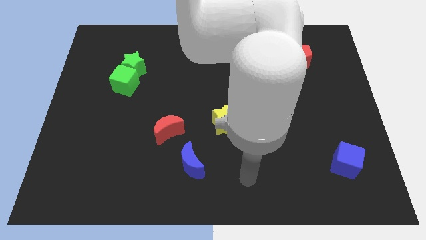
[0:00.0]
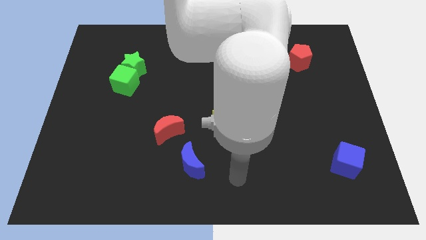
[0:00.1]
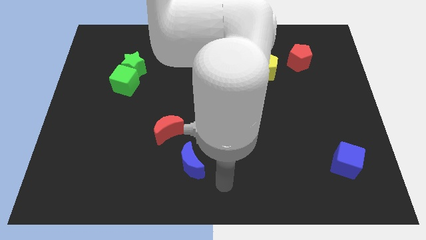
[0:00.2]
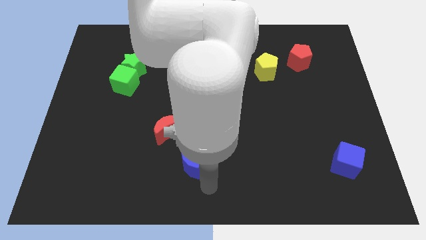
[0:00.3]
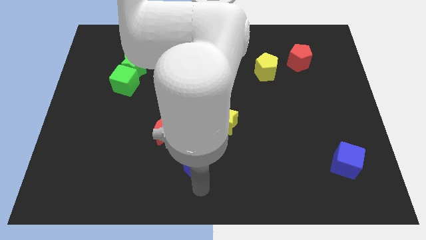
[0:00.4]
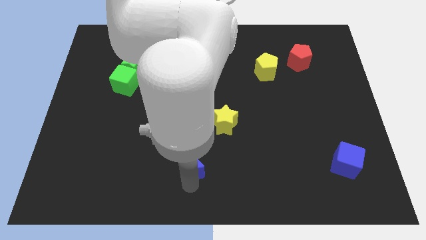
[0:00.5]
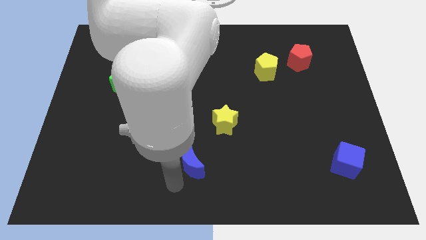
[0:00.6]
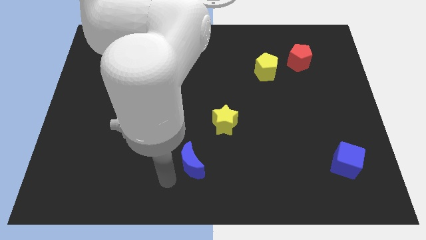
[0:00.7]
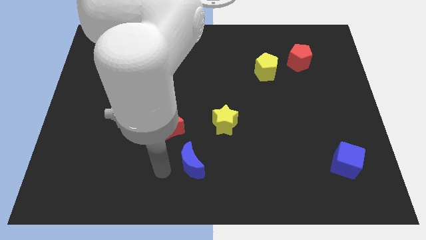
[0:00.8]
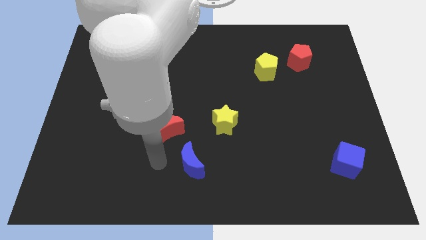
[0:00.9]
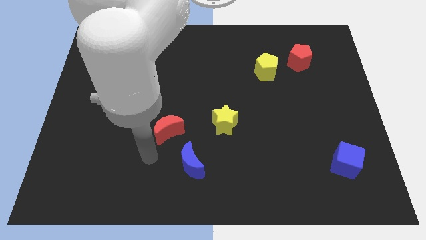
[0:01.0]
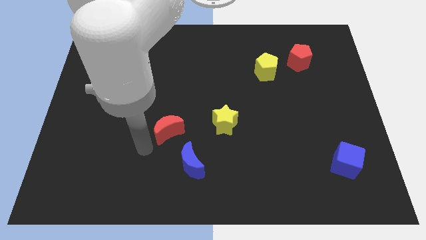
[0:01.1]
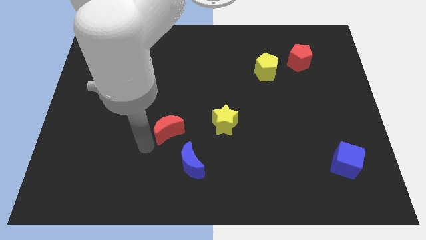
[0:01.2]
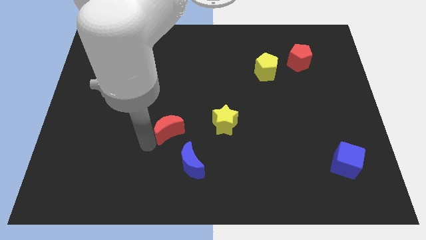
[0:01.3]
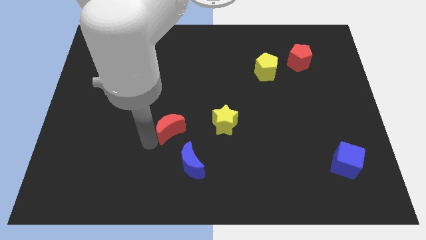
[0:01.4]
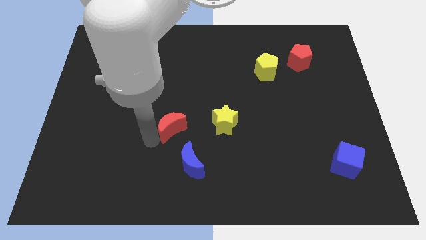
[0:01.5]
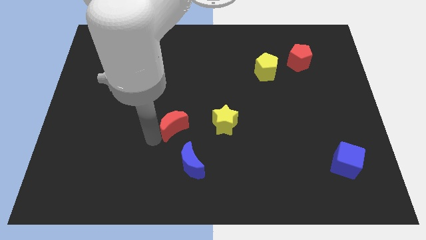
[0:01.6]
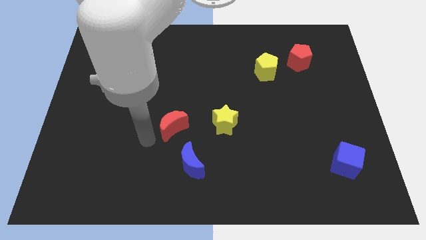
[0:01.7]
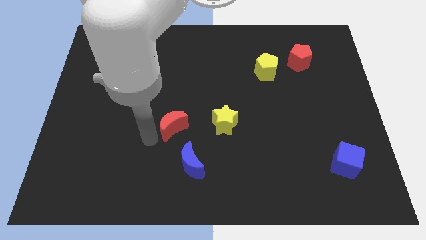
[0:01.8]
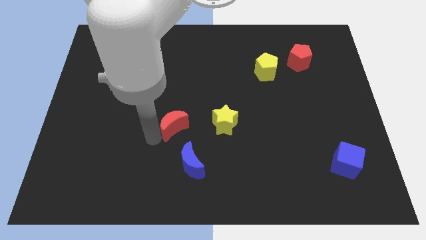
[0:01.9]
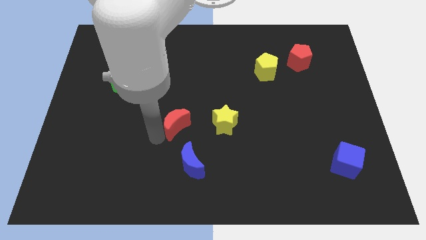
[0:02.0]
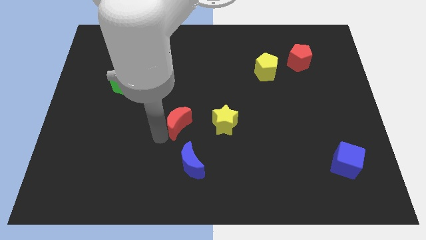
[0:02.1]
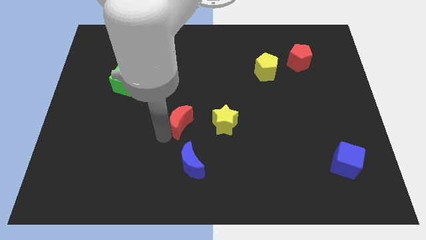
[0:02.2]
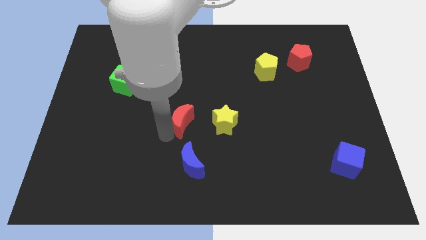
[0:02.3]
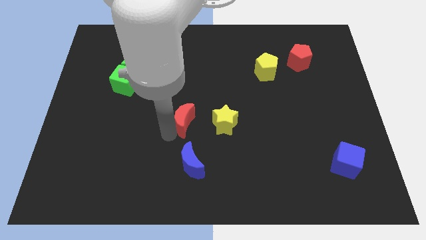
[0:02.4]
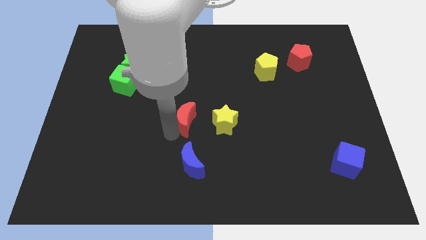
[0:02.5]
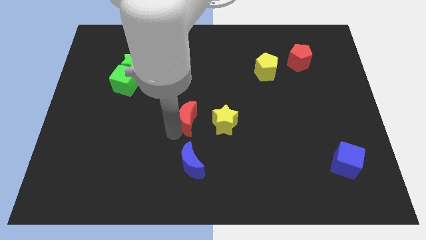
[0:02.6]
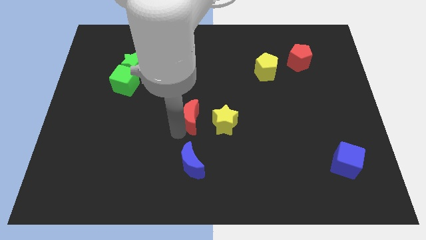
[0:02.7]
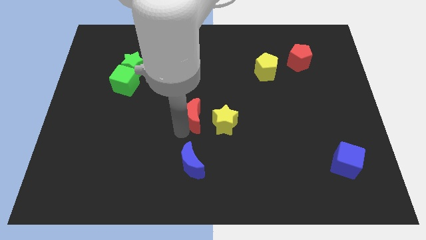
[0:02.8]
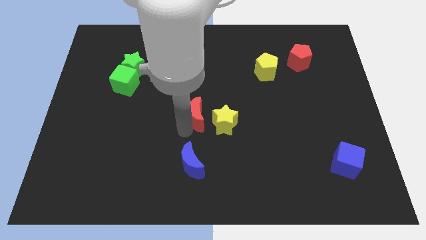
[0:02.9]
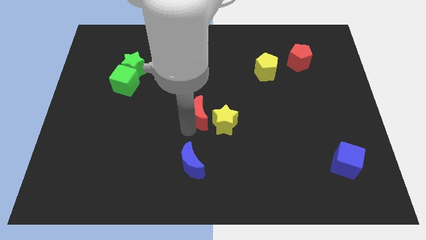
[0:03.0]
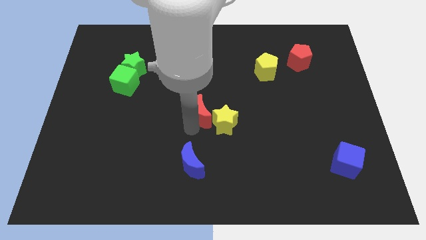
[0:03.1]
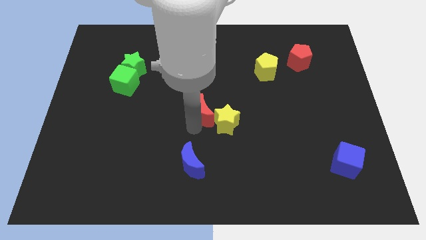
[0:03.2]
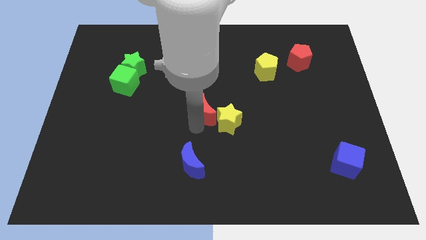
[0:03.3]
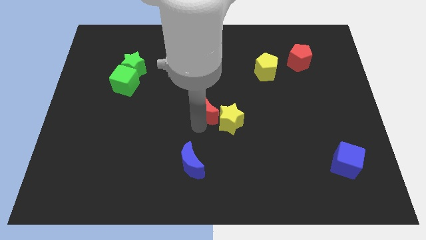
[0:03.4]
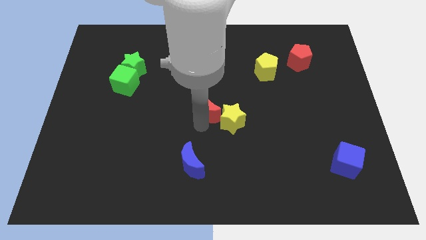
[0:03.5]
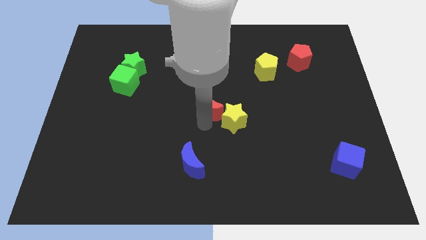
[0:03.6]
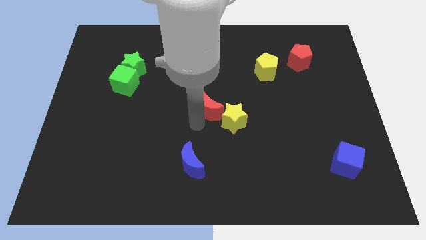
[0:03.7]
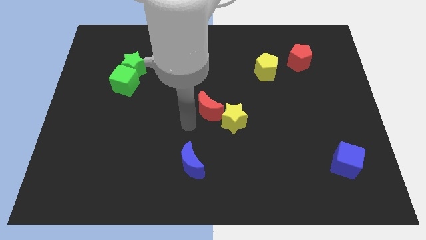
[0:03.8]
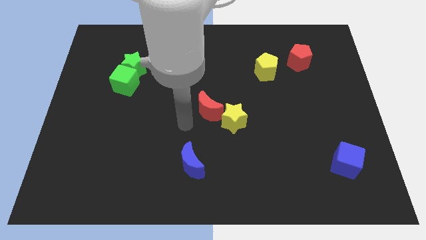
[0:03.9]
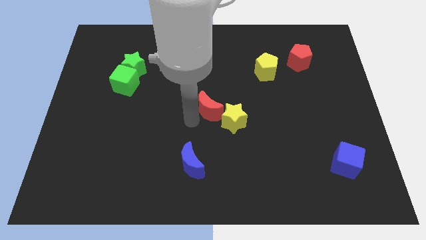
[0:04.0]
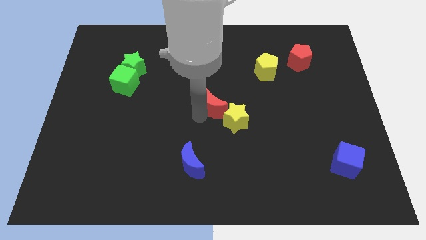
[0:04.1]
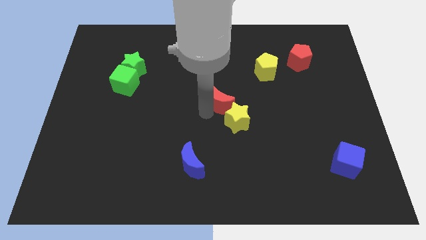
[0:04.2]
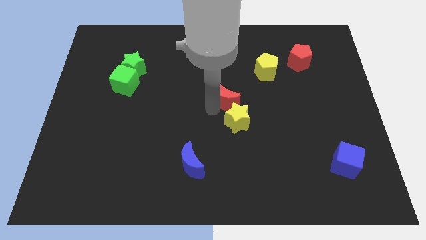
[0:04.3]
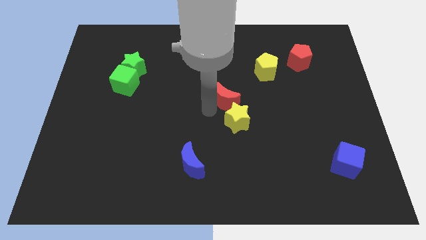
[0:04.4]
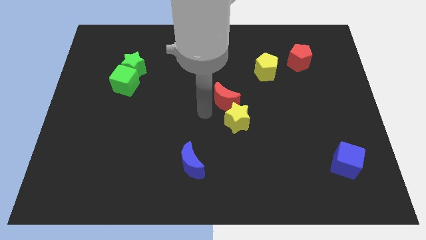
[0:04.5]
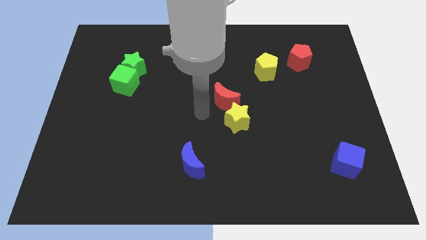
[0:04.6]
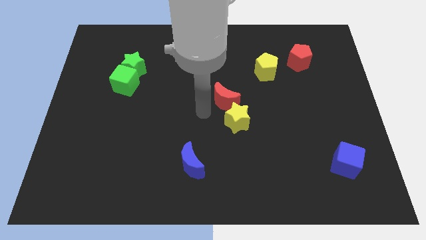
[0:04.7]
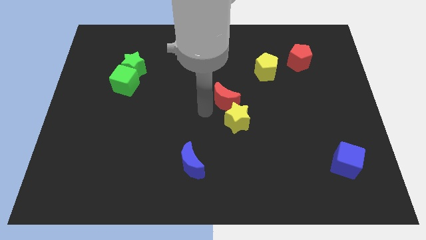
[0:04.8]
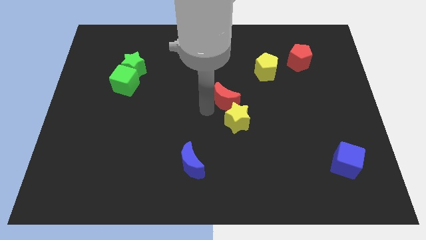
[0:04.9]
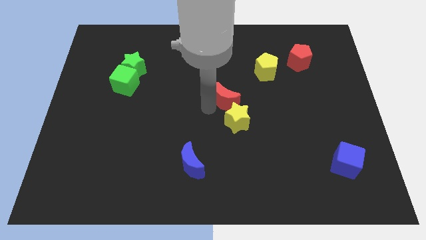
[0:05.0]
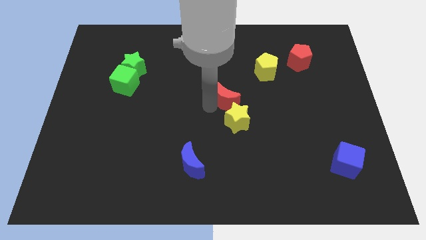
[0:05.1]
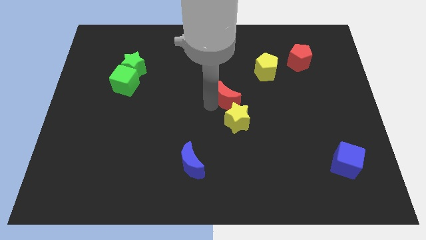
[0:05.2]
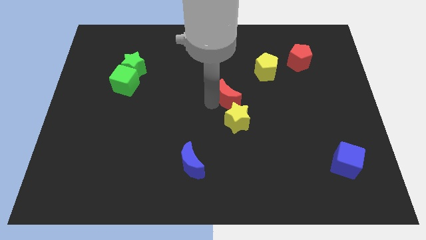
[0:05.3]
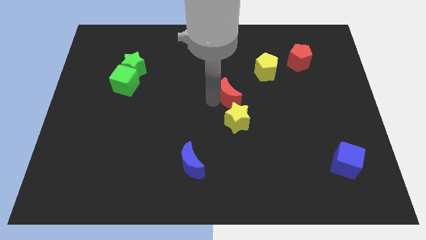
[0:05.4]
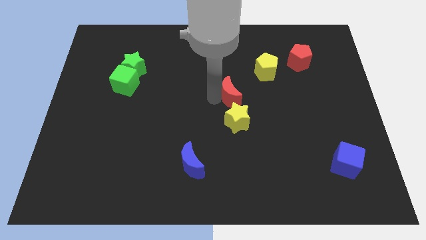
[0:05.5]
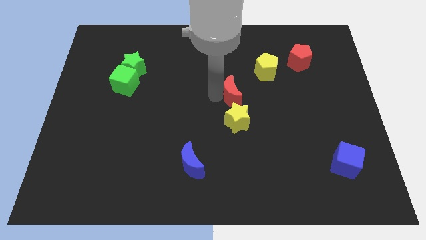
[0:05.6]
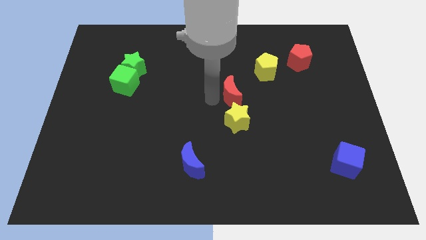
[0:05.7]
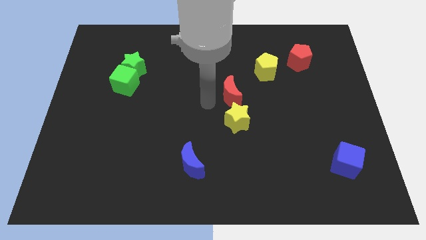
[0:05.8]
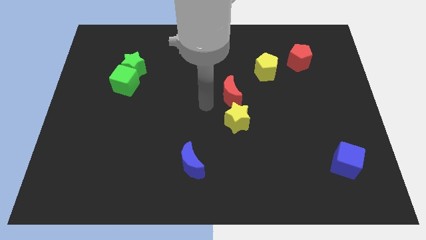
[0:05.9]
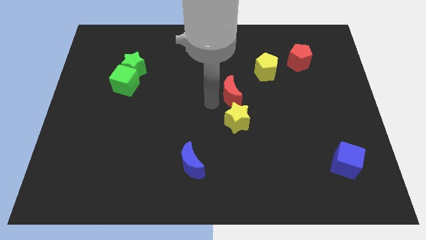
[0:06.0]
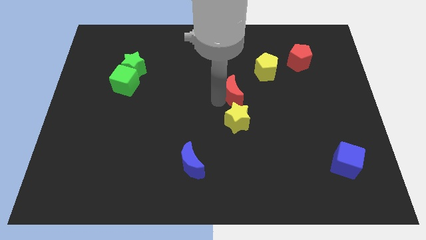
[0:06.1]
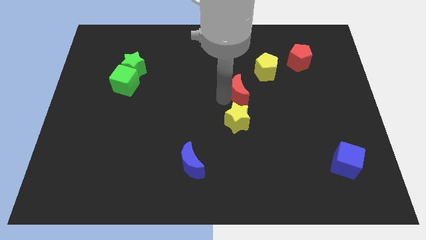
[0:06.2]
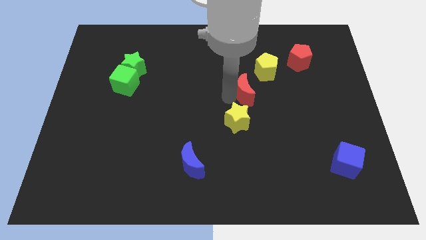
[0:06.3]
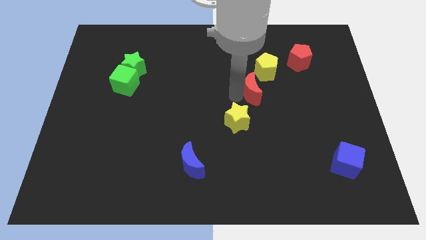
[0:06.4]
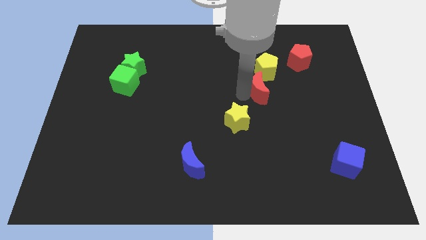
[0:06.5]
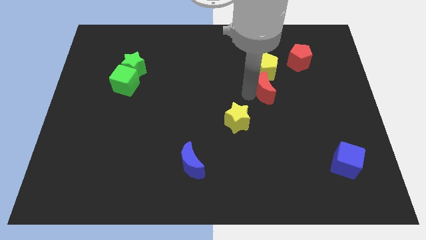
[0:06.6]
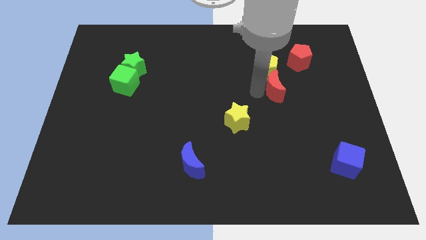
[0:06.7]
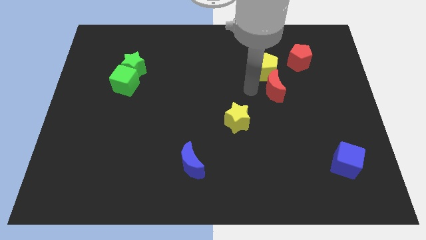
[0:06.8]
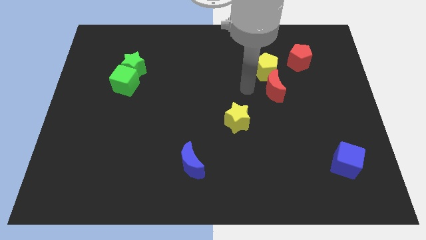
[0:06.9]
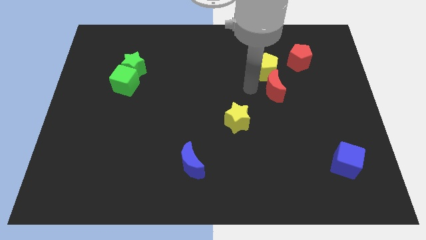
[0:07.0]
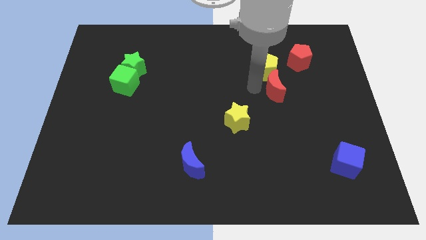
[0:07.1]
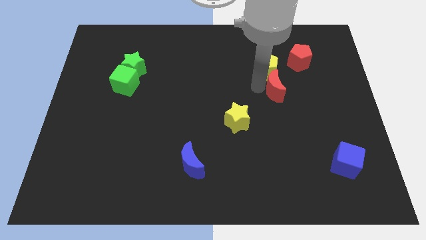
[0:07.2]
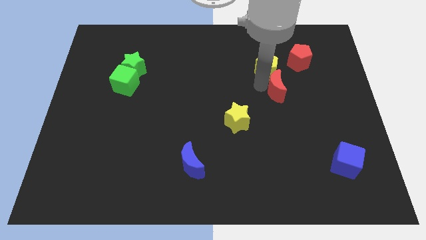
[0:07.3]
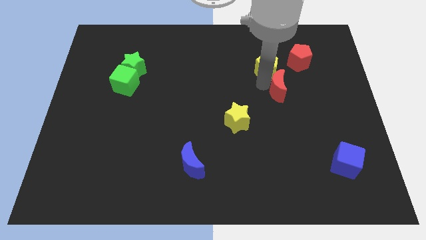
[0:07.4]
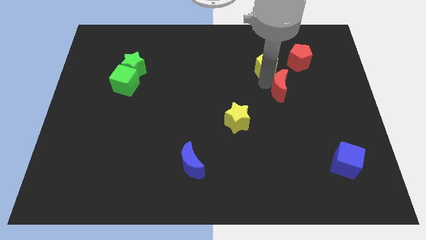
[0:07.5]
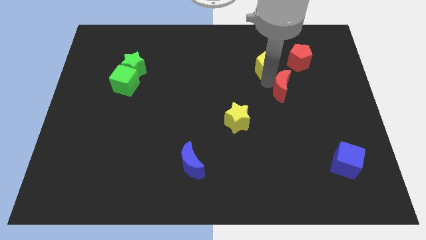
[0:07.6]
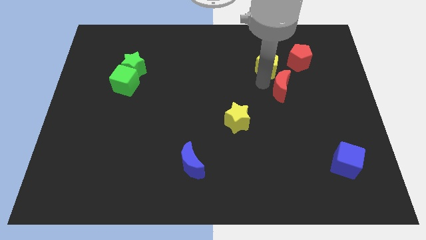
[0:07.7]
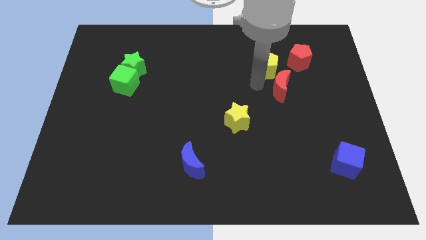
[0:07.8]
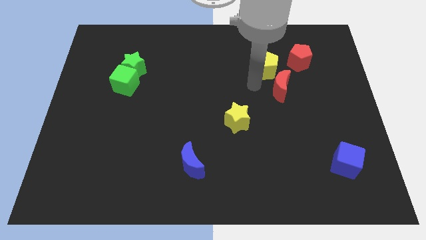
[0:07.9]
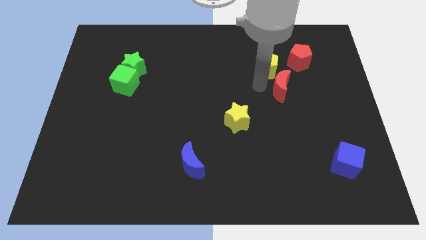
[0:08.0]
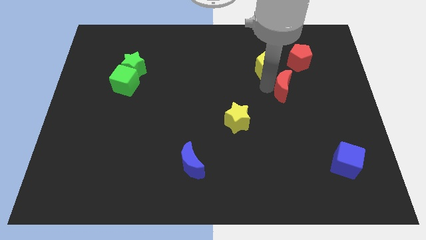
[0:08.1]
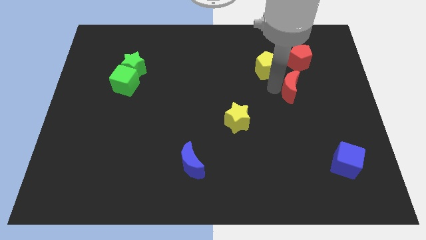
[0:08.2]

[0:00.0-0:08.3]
push the red moon to the bottom side of the red pentagon
